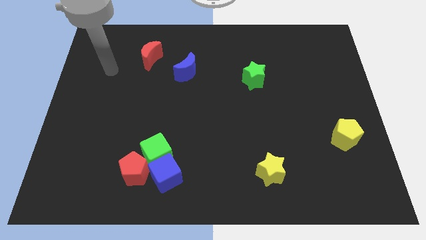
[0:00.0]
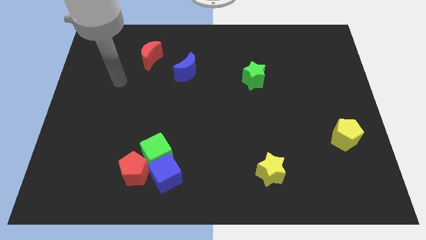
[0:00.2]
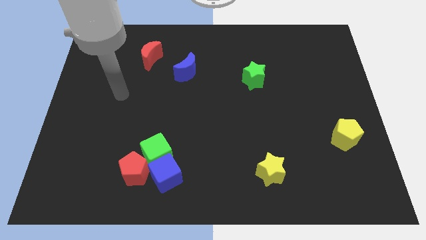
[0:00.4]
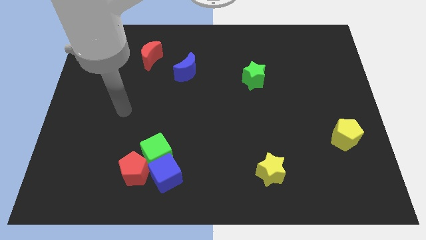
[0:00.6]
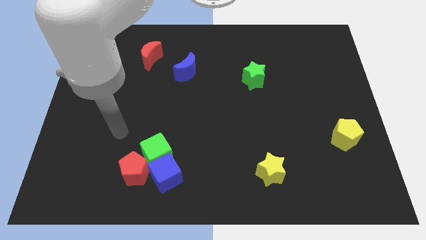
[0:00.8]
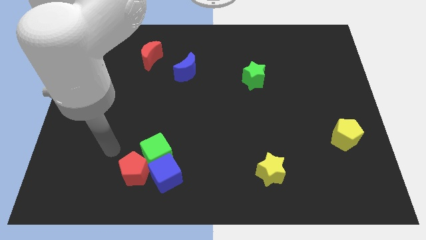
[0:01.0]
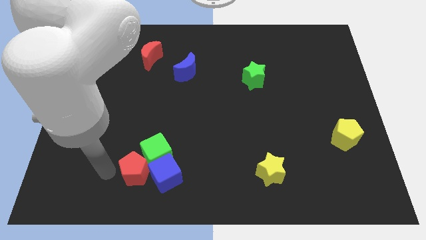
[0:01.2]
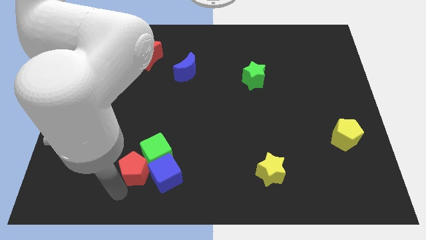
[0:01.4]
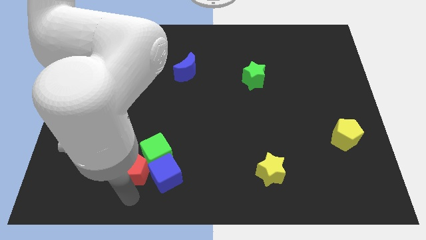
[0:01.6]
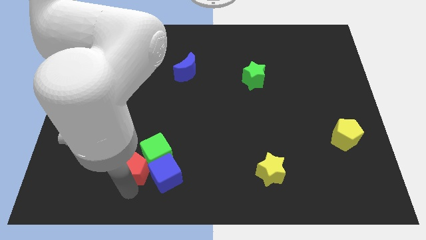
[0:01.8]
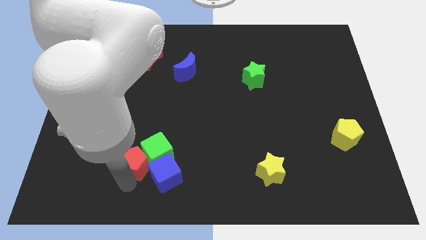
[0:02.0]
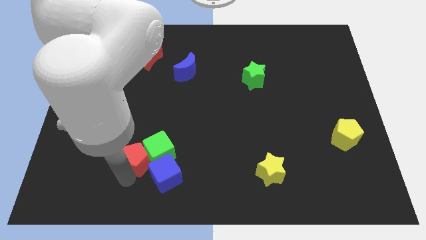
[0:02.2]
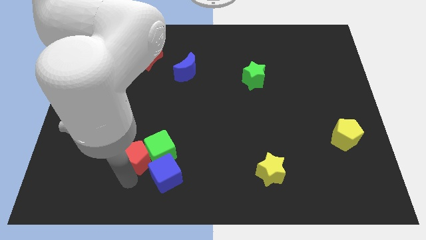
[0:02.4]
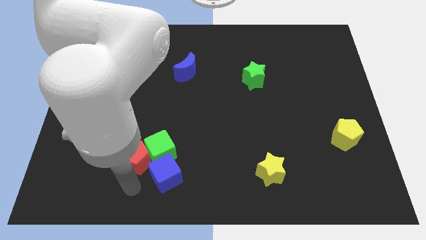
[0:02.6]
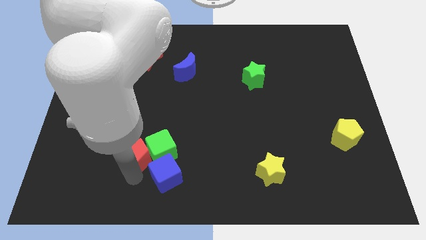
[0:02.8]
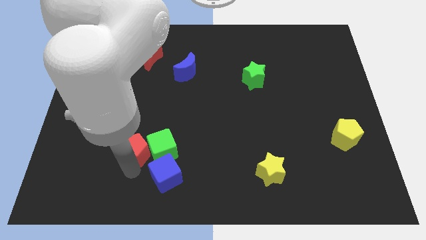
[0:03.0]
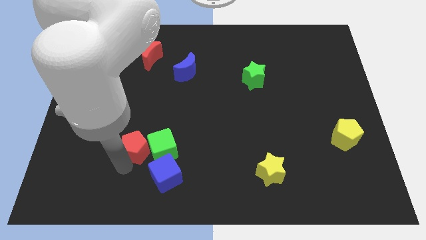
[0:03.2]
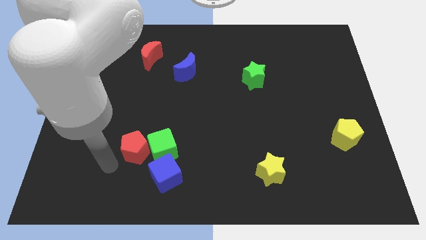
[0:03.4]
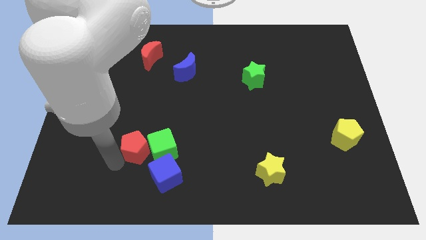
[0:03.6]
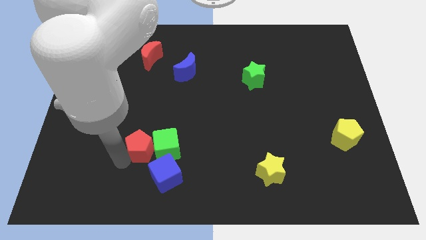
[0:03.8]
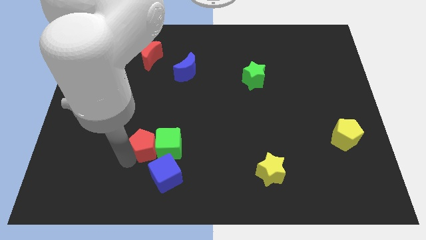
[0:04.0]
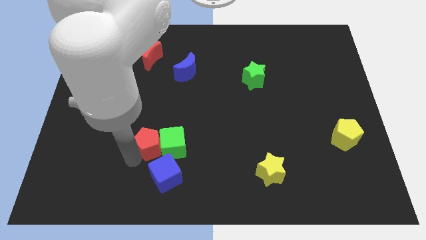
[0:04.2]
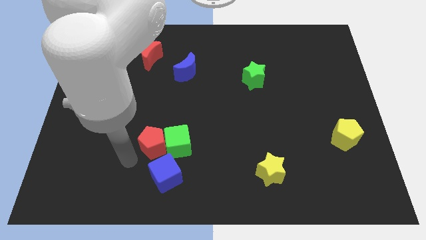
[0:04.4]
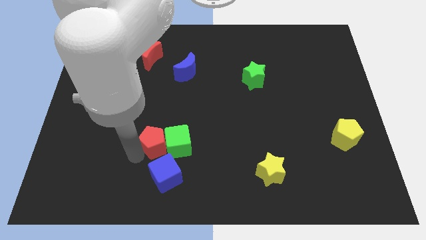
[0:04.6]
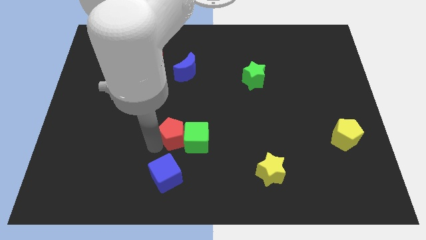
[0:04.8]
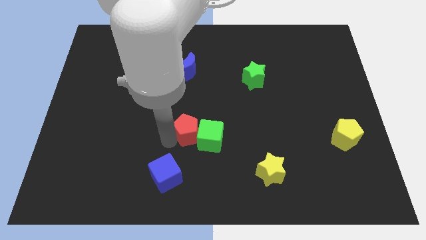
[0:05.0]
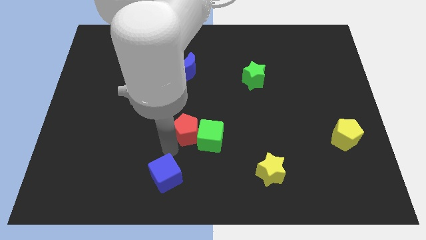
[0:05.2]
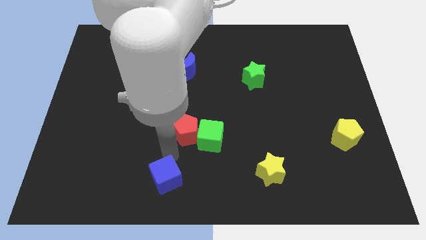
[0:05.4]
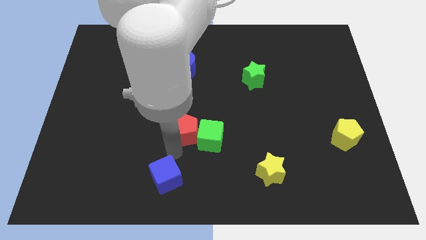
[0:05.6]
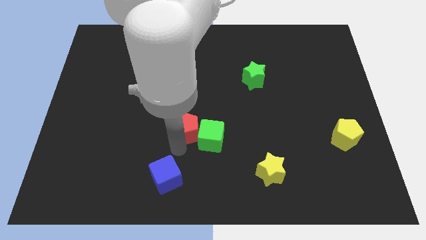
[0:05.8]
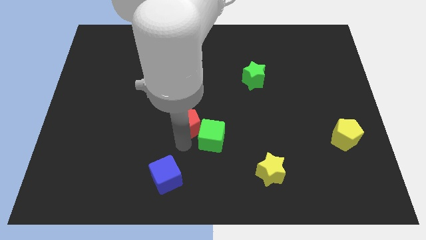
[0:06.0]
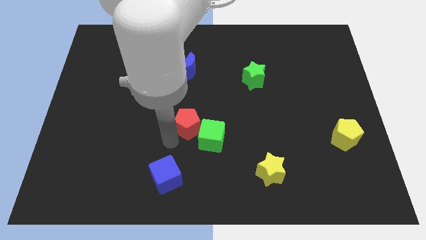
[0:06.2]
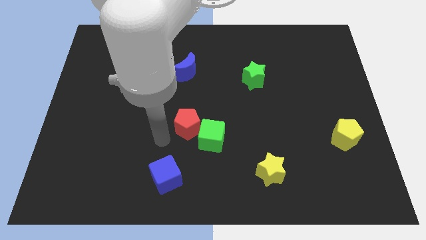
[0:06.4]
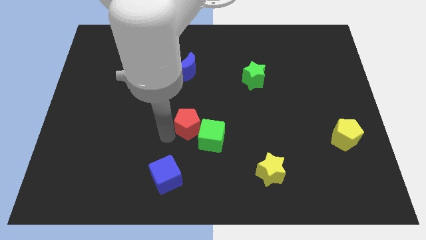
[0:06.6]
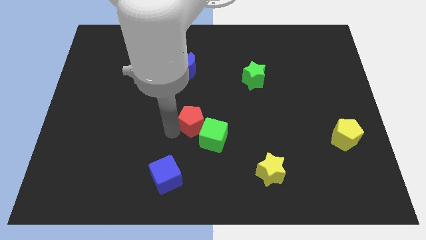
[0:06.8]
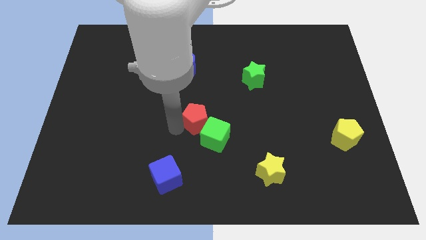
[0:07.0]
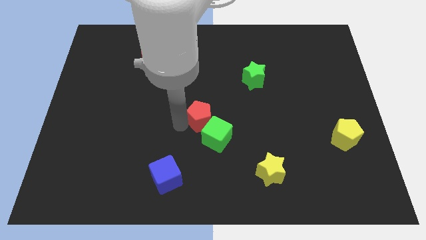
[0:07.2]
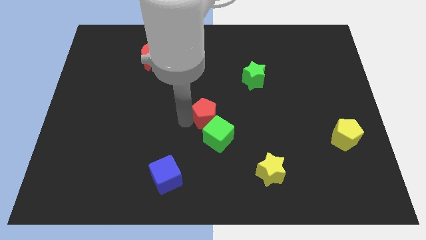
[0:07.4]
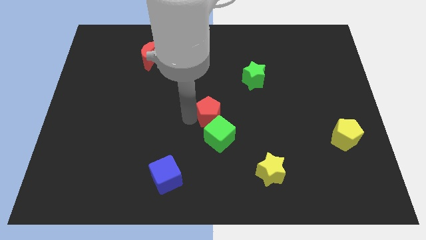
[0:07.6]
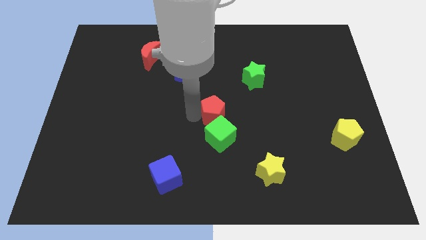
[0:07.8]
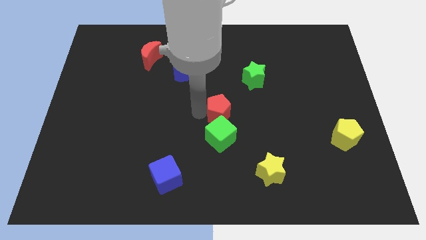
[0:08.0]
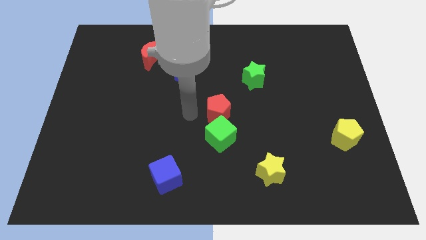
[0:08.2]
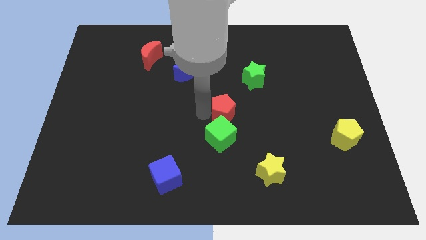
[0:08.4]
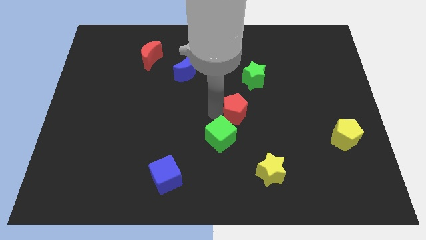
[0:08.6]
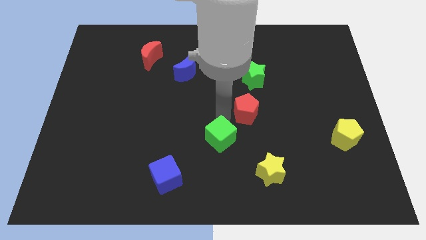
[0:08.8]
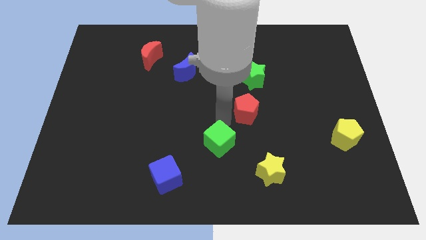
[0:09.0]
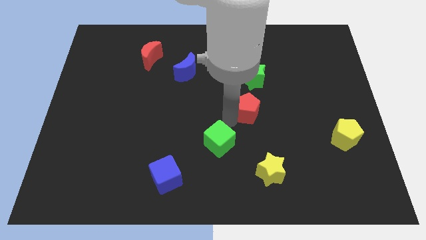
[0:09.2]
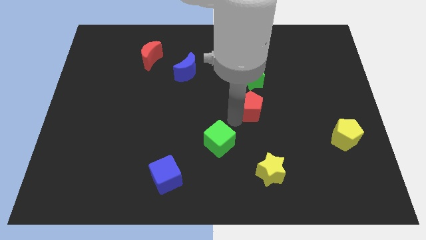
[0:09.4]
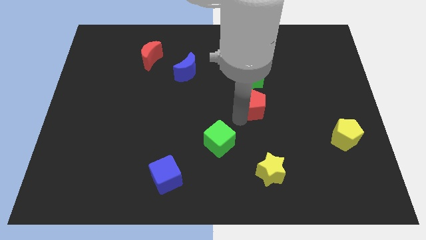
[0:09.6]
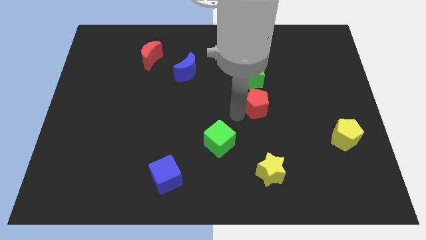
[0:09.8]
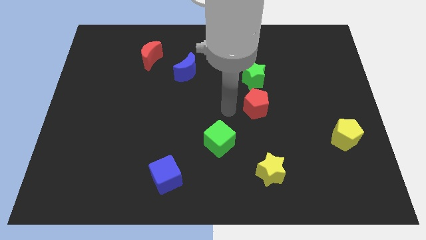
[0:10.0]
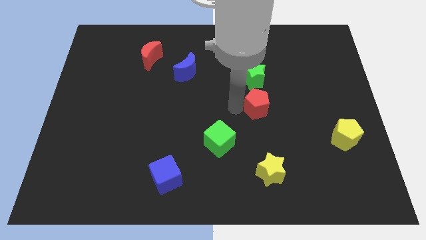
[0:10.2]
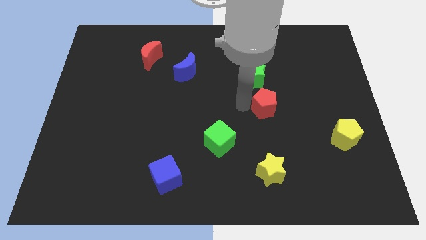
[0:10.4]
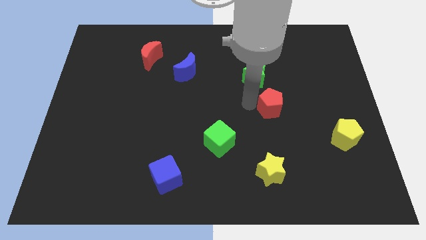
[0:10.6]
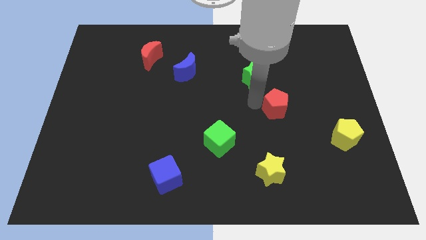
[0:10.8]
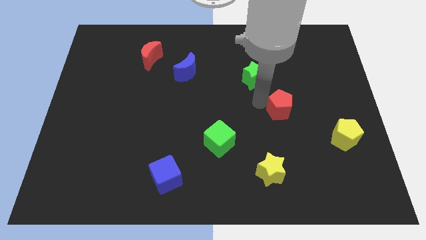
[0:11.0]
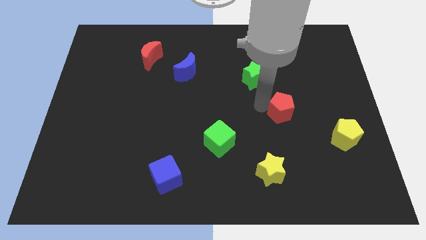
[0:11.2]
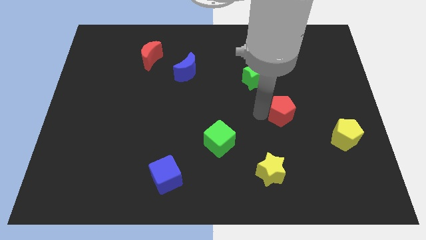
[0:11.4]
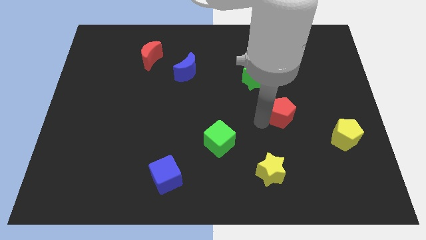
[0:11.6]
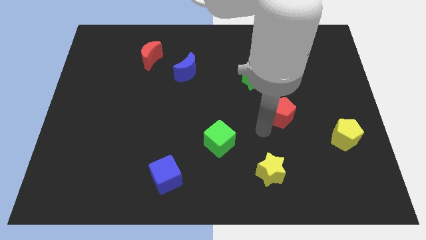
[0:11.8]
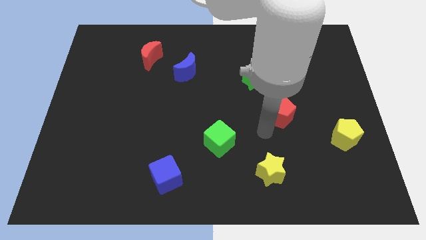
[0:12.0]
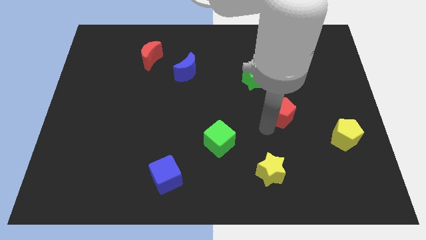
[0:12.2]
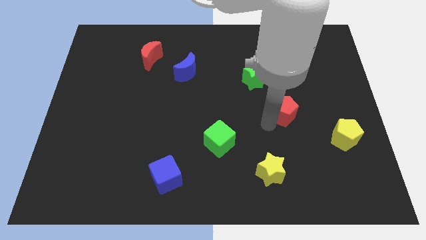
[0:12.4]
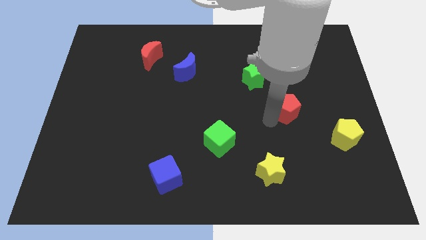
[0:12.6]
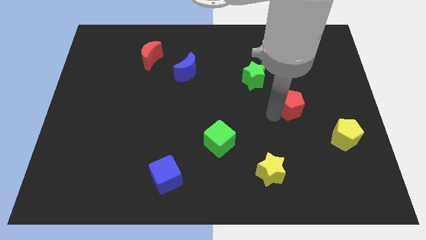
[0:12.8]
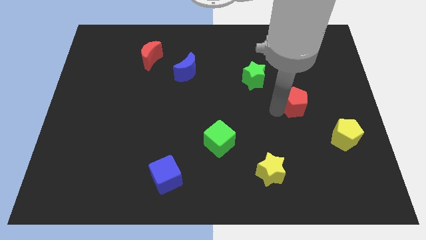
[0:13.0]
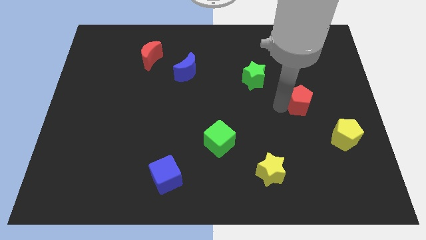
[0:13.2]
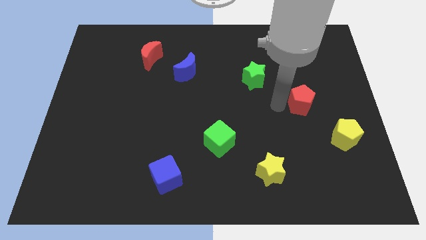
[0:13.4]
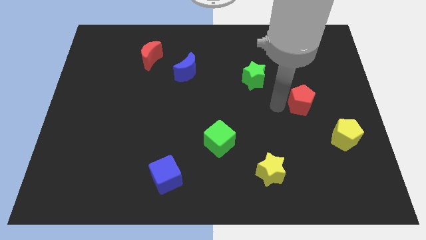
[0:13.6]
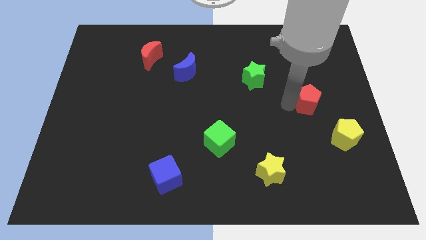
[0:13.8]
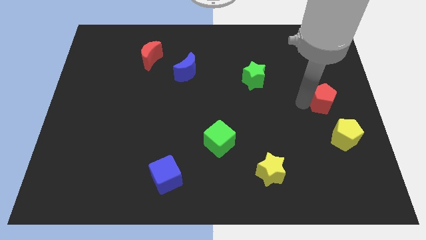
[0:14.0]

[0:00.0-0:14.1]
push the red pentagon to the center right

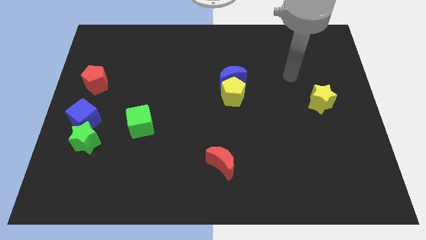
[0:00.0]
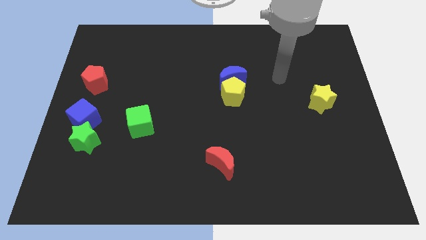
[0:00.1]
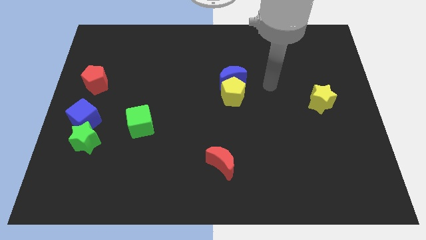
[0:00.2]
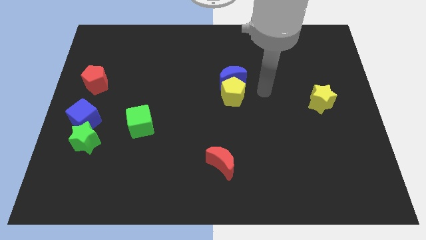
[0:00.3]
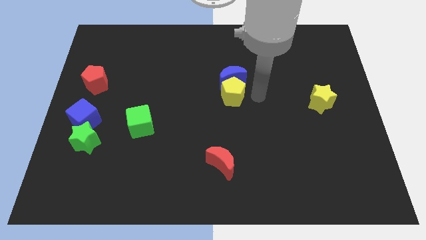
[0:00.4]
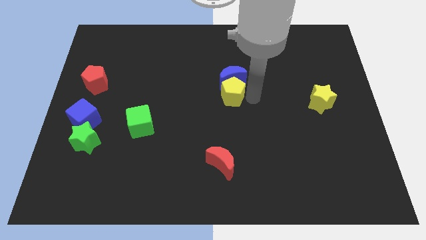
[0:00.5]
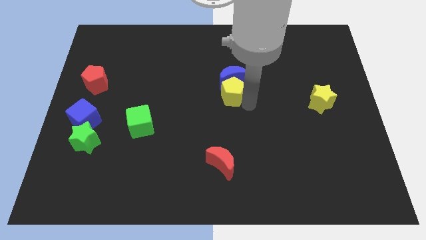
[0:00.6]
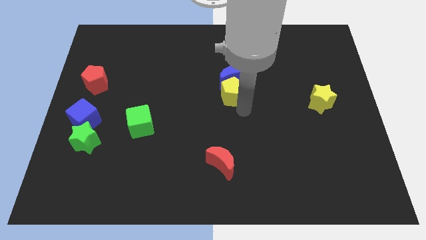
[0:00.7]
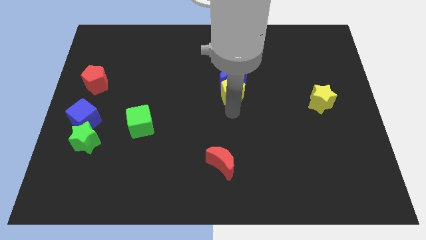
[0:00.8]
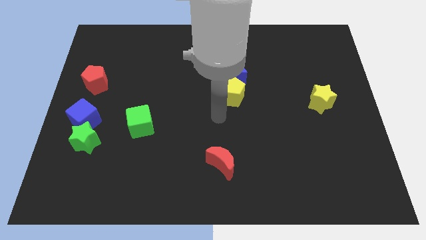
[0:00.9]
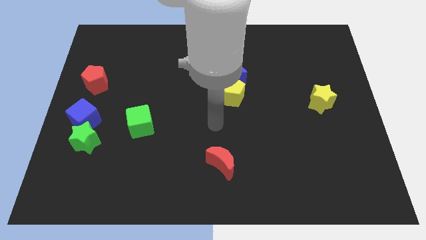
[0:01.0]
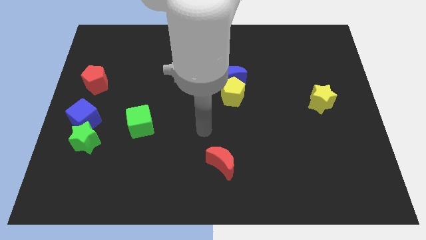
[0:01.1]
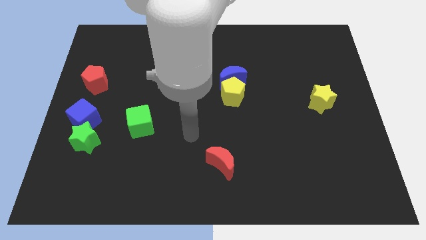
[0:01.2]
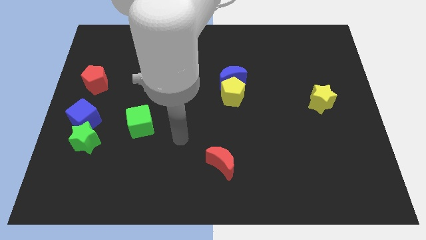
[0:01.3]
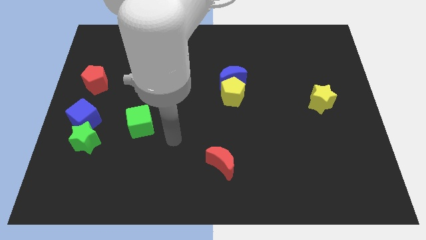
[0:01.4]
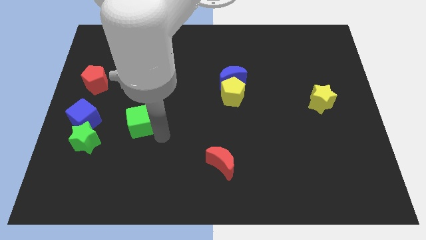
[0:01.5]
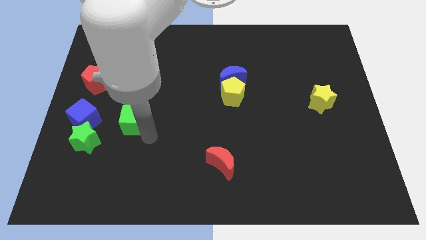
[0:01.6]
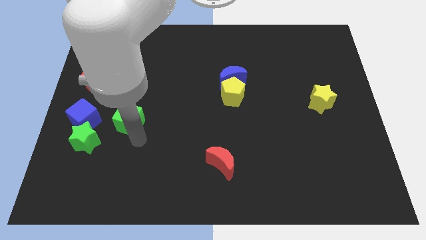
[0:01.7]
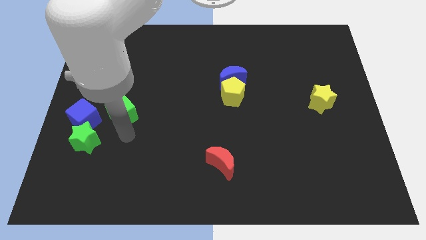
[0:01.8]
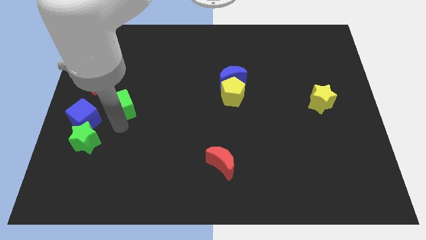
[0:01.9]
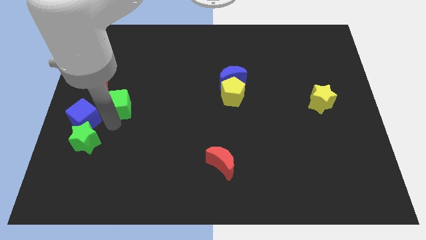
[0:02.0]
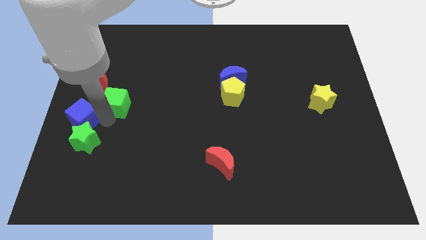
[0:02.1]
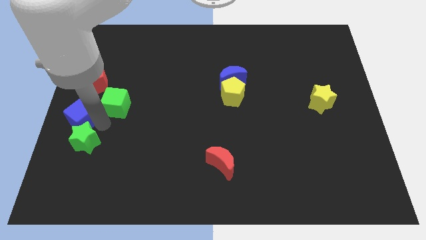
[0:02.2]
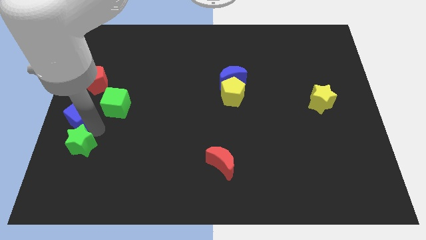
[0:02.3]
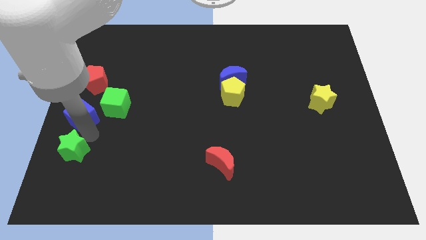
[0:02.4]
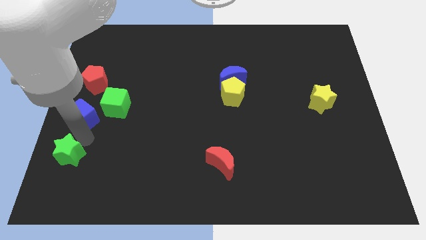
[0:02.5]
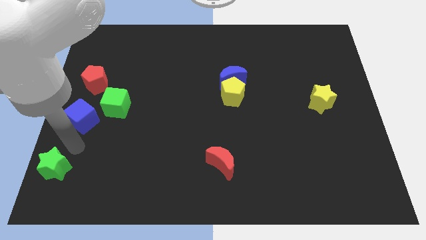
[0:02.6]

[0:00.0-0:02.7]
push the green star to the bottom left of the board
